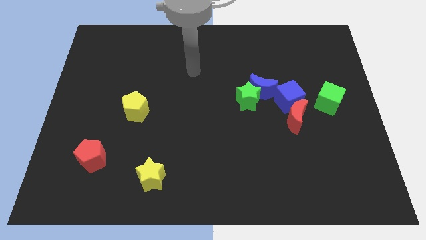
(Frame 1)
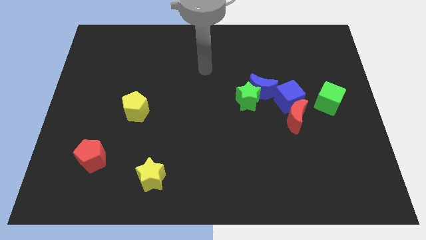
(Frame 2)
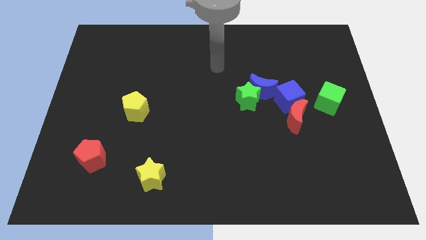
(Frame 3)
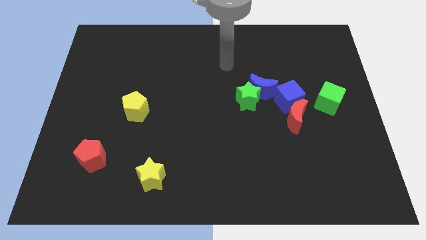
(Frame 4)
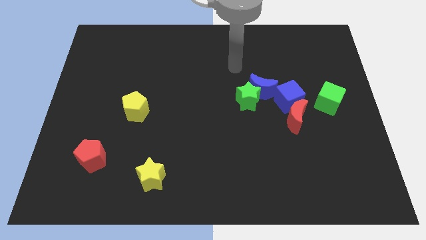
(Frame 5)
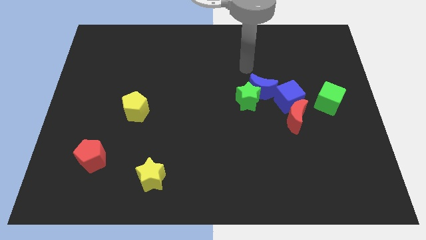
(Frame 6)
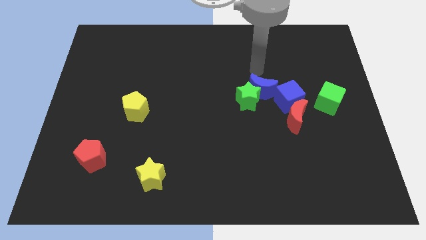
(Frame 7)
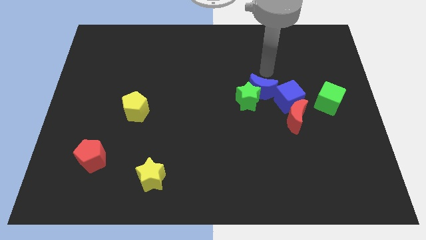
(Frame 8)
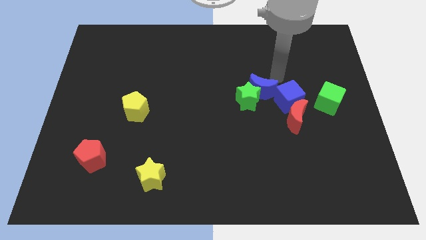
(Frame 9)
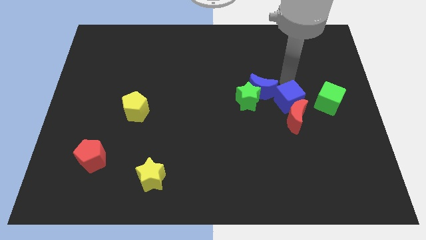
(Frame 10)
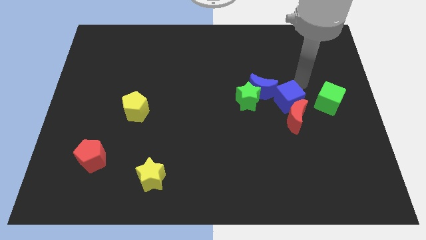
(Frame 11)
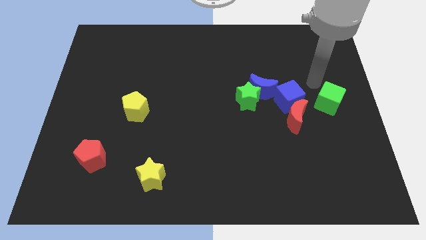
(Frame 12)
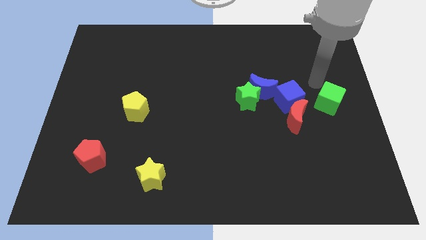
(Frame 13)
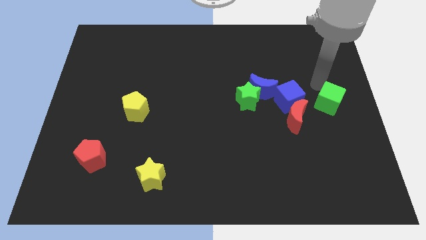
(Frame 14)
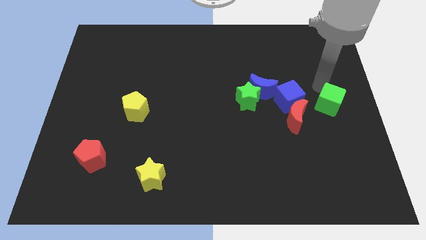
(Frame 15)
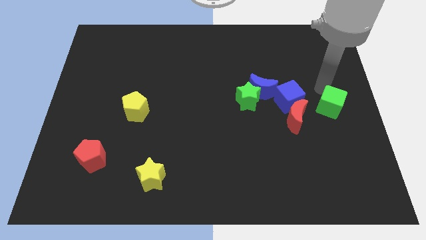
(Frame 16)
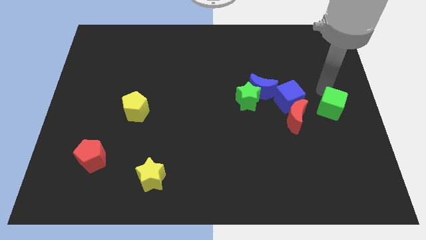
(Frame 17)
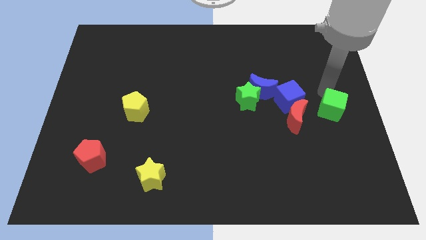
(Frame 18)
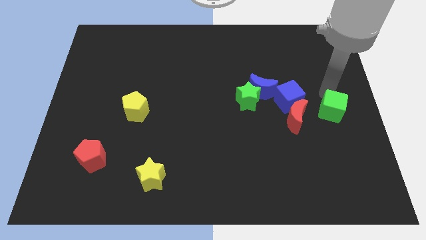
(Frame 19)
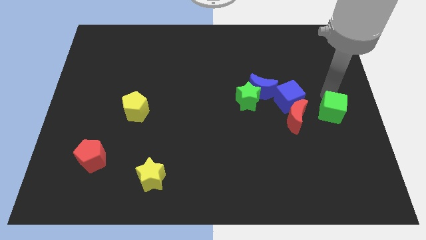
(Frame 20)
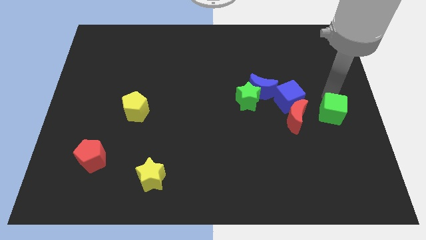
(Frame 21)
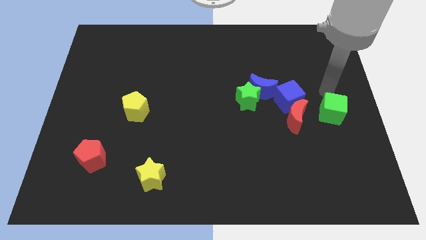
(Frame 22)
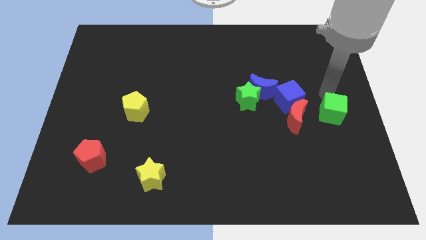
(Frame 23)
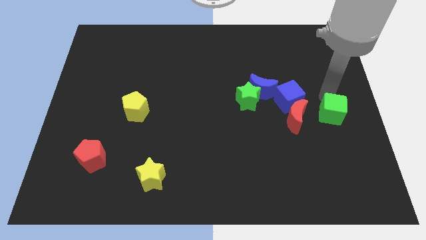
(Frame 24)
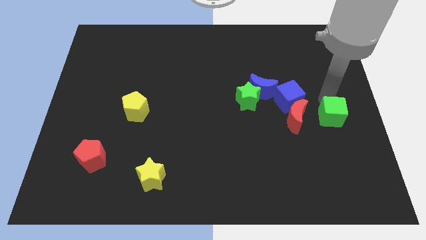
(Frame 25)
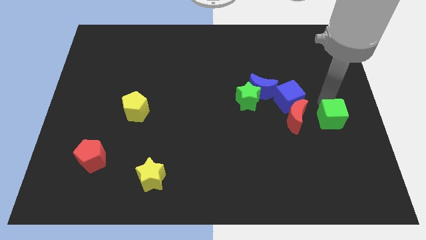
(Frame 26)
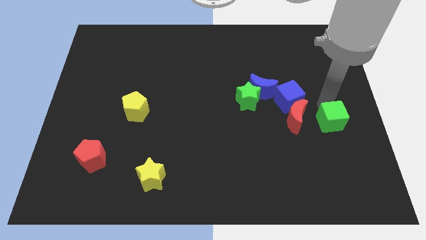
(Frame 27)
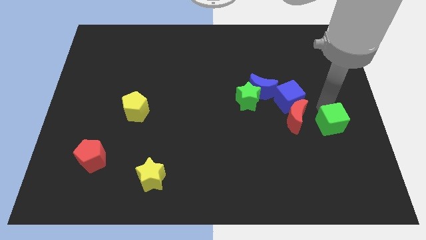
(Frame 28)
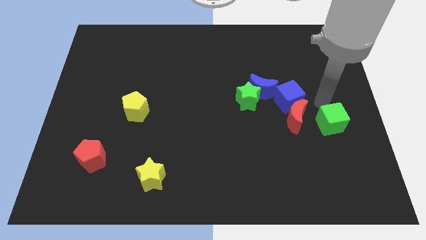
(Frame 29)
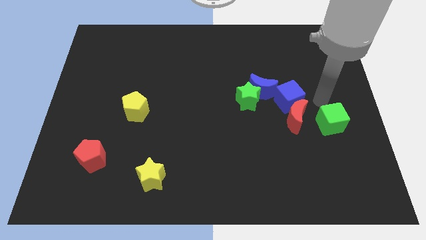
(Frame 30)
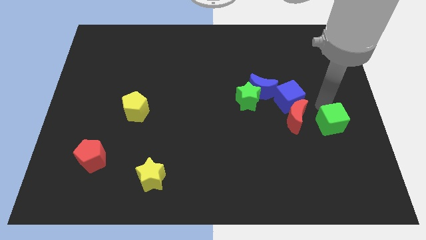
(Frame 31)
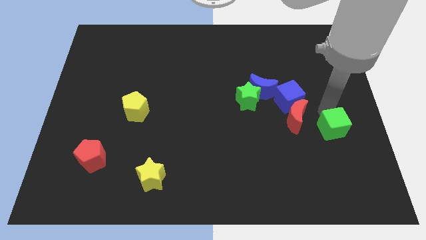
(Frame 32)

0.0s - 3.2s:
slightly push the green cube downwards

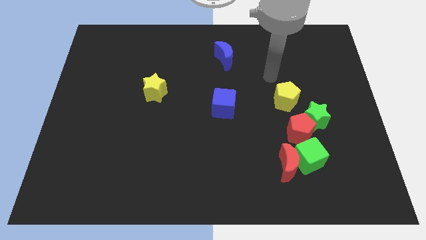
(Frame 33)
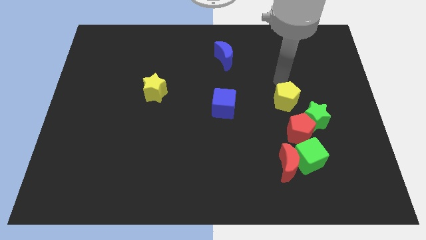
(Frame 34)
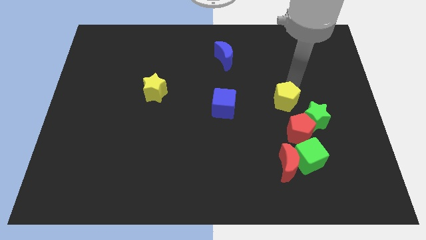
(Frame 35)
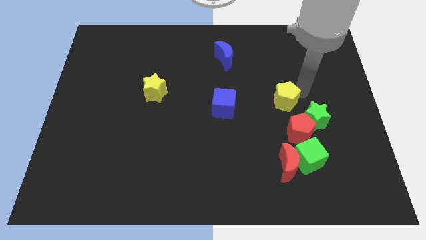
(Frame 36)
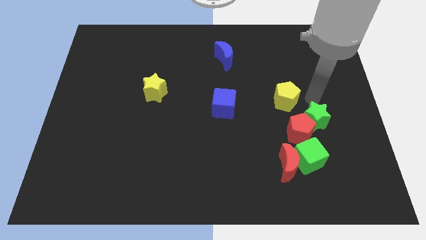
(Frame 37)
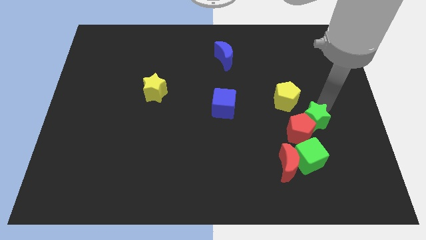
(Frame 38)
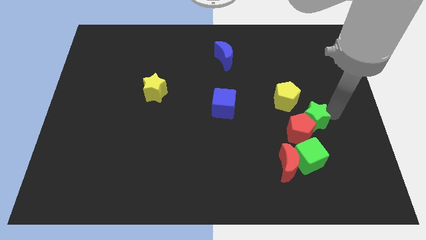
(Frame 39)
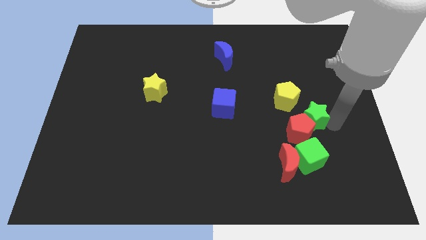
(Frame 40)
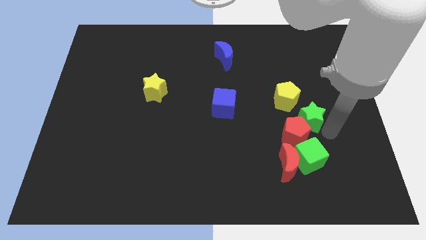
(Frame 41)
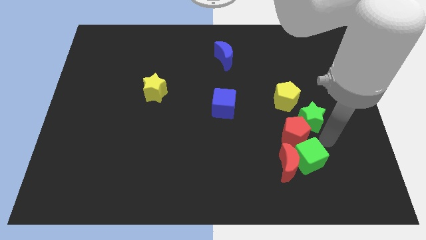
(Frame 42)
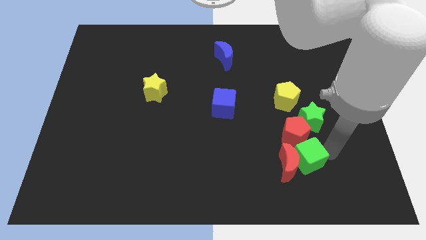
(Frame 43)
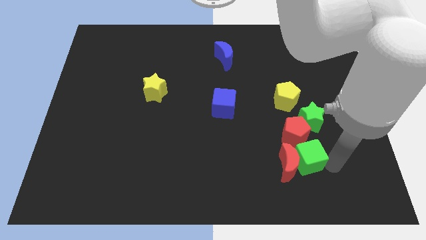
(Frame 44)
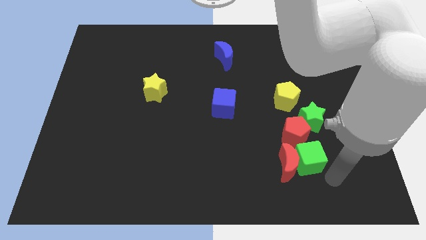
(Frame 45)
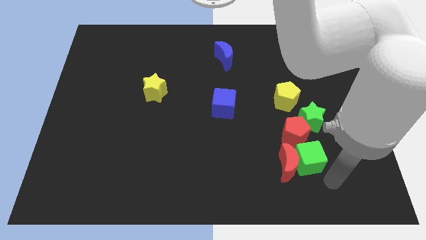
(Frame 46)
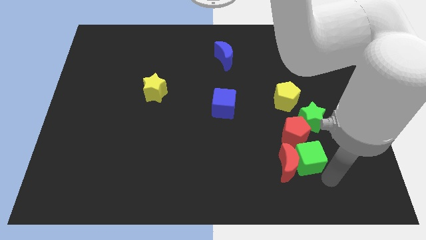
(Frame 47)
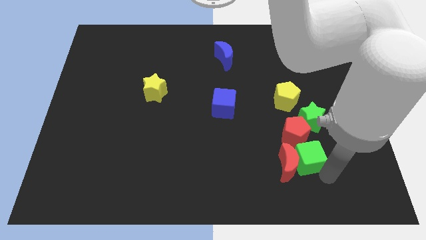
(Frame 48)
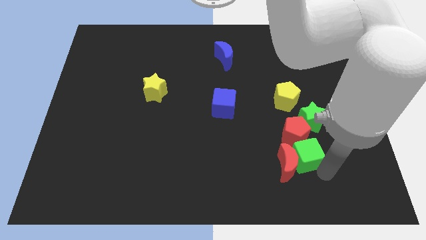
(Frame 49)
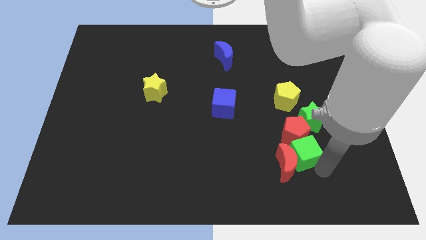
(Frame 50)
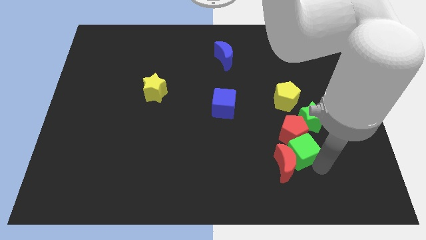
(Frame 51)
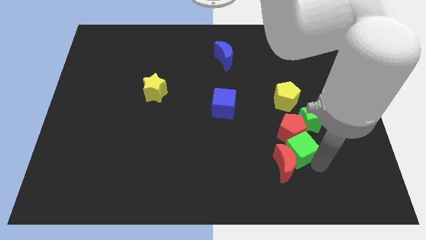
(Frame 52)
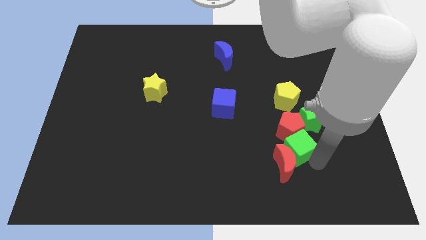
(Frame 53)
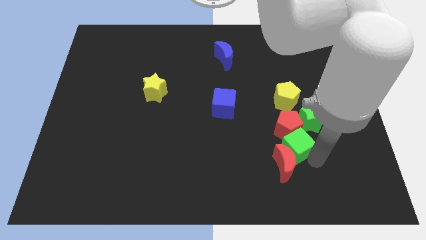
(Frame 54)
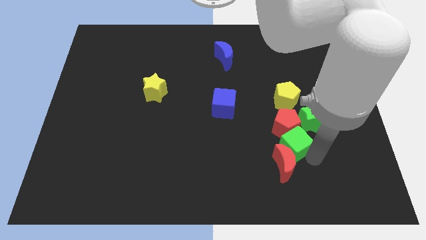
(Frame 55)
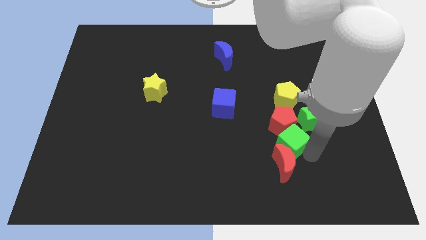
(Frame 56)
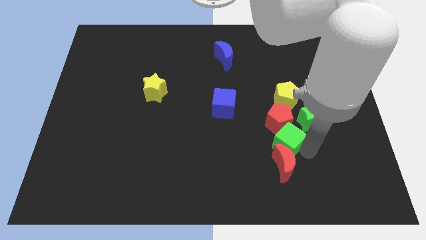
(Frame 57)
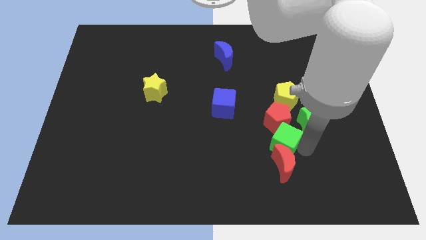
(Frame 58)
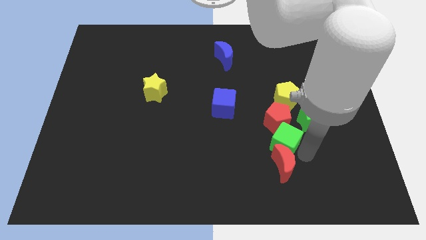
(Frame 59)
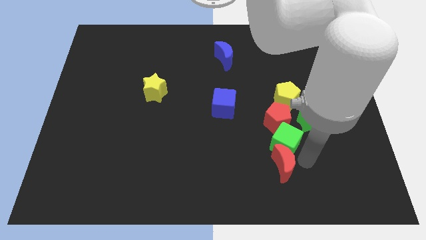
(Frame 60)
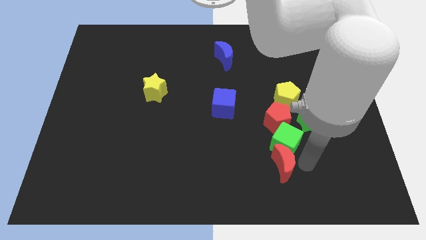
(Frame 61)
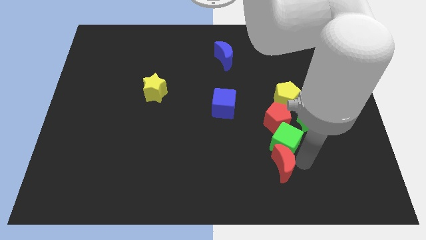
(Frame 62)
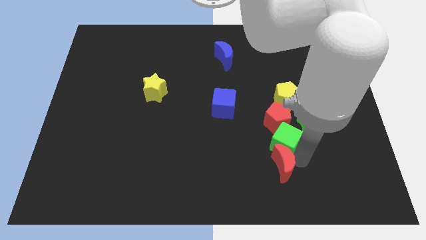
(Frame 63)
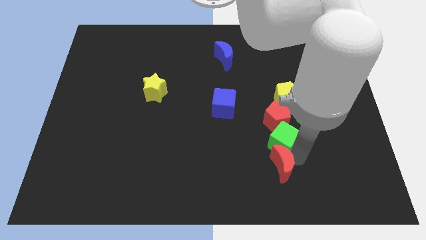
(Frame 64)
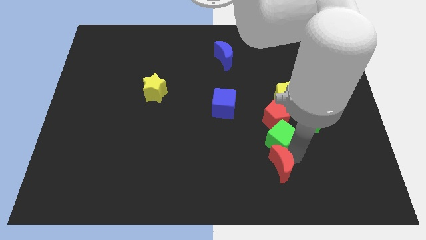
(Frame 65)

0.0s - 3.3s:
push the green cube a little bit up and to the left diagonally

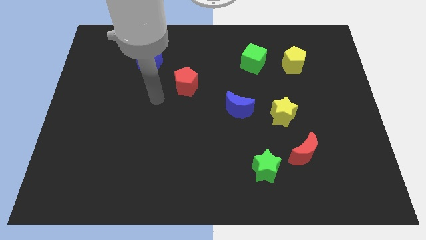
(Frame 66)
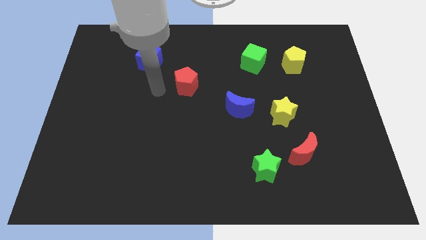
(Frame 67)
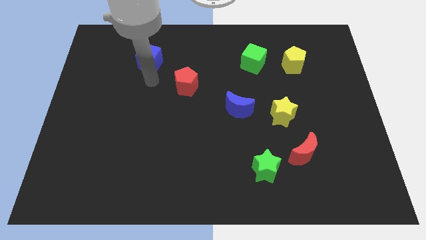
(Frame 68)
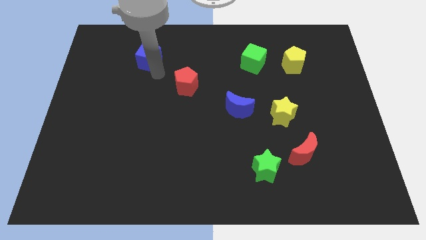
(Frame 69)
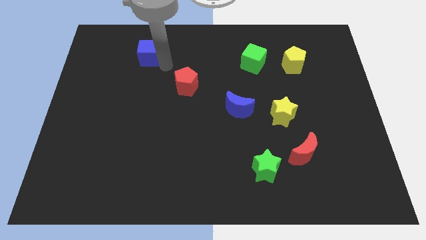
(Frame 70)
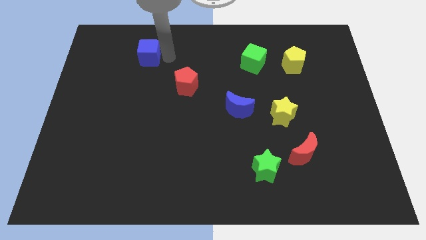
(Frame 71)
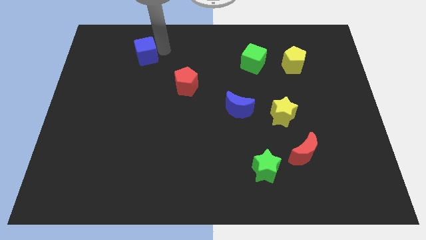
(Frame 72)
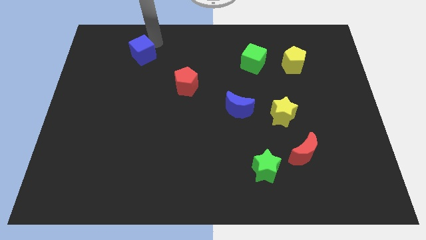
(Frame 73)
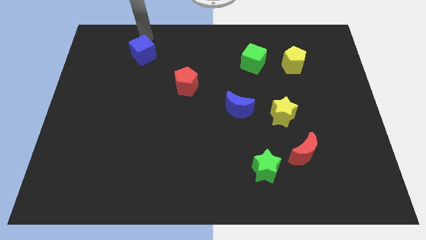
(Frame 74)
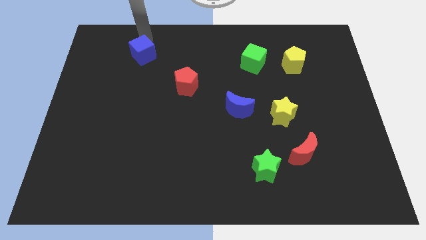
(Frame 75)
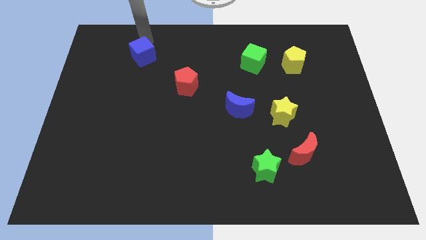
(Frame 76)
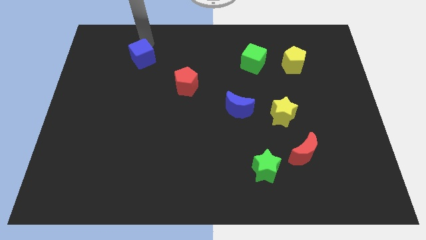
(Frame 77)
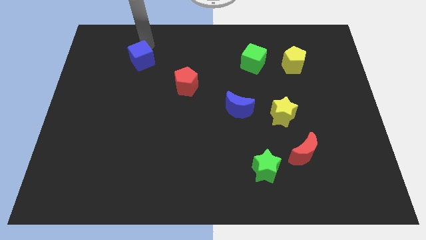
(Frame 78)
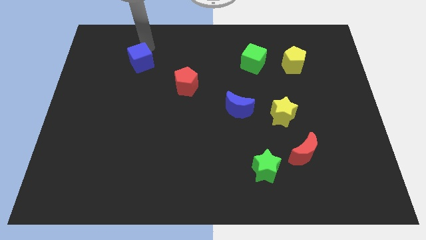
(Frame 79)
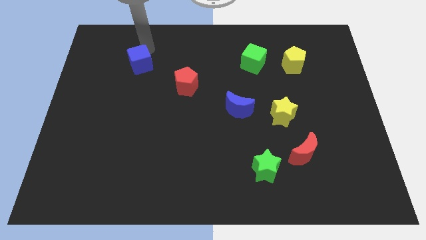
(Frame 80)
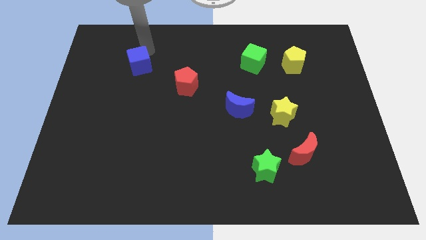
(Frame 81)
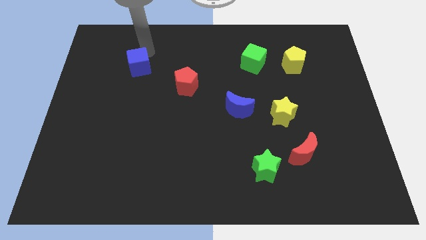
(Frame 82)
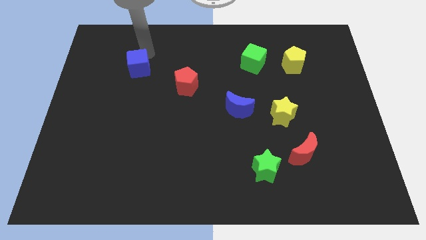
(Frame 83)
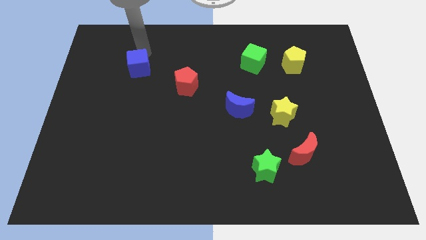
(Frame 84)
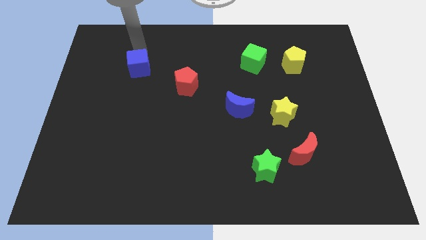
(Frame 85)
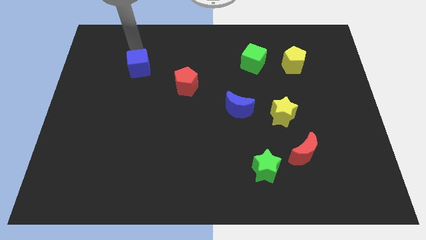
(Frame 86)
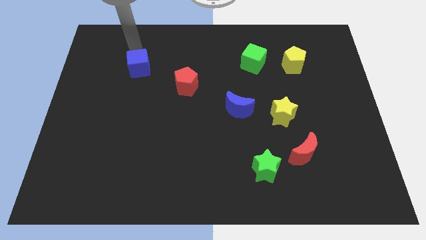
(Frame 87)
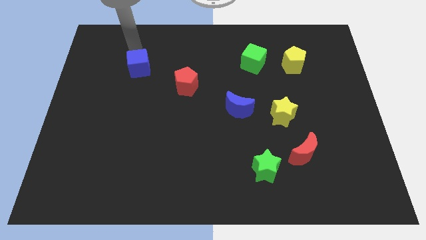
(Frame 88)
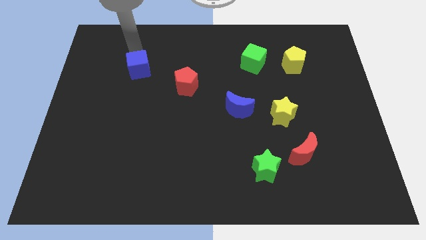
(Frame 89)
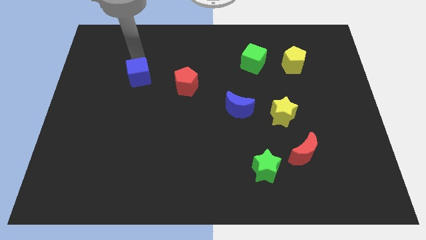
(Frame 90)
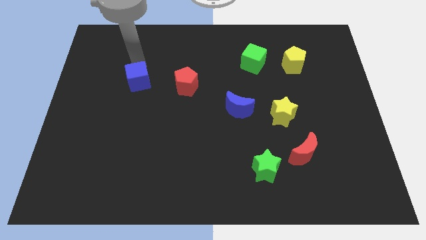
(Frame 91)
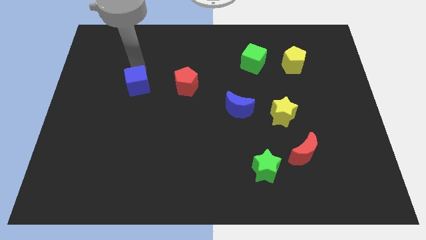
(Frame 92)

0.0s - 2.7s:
slightly slide the blue cube down
